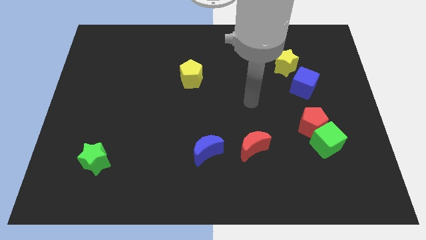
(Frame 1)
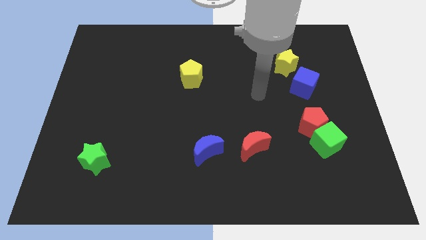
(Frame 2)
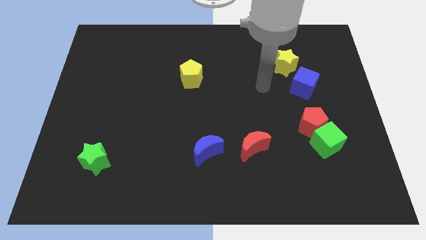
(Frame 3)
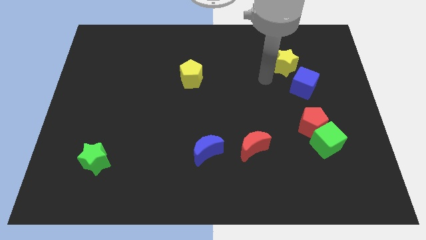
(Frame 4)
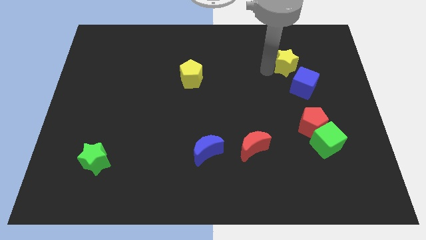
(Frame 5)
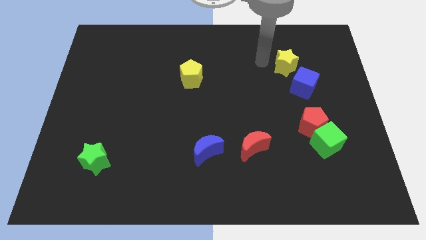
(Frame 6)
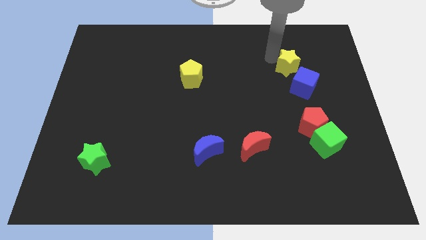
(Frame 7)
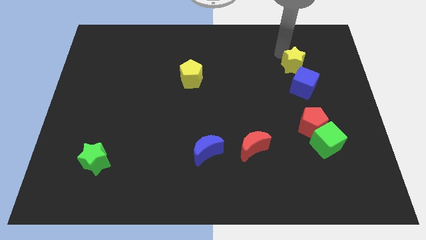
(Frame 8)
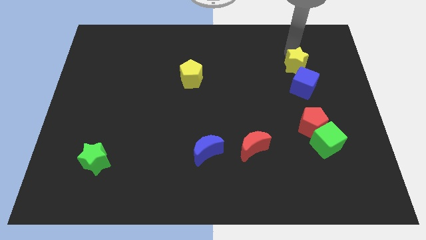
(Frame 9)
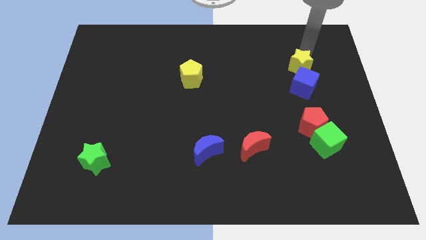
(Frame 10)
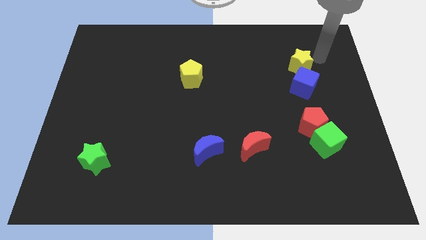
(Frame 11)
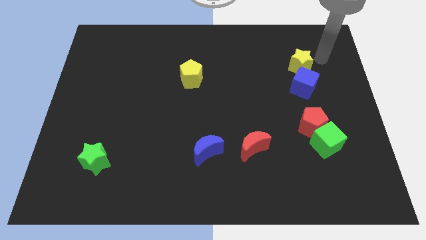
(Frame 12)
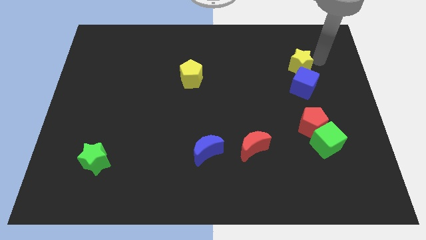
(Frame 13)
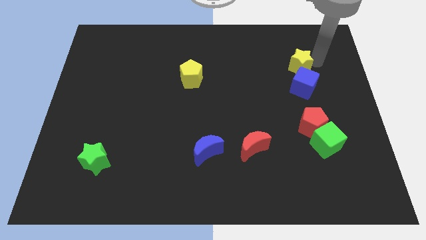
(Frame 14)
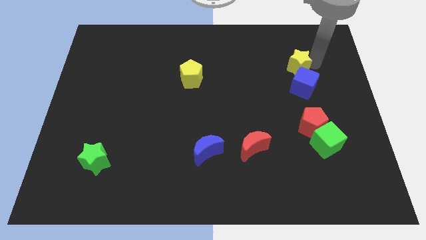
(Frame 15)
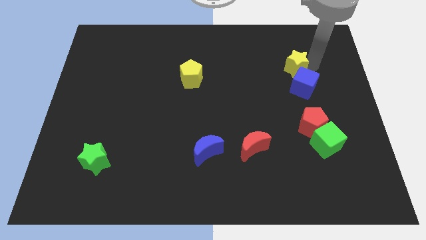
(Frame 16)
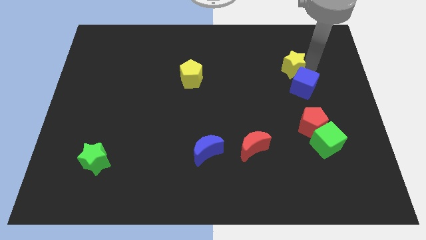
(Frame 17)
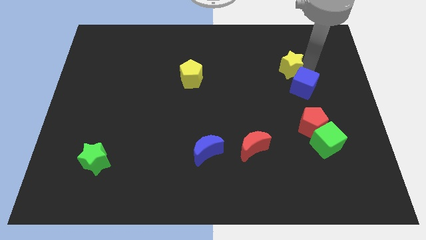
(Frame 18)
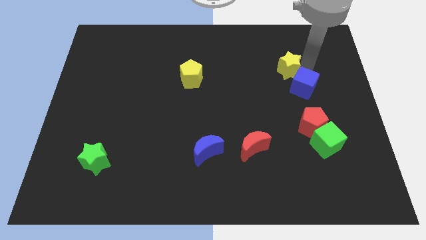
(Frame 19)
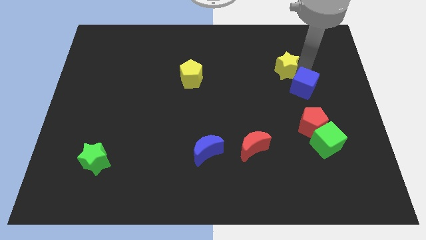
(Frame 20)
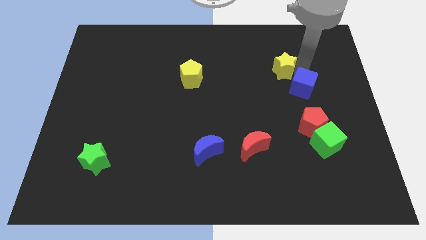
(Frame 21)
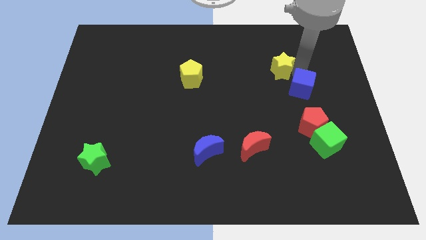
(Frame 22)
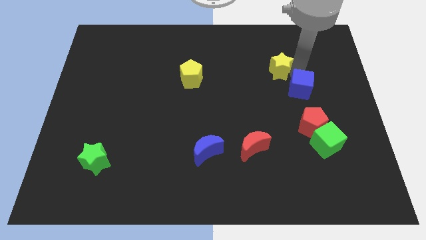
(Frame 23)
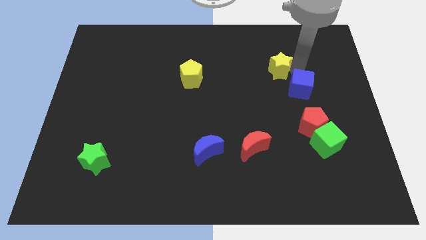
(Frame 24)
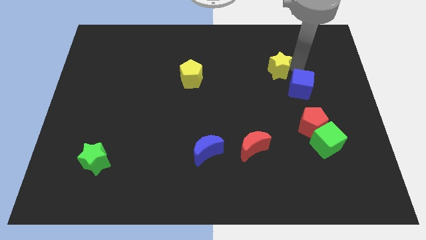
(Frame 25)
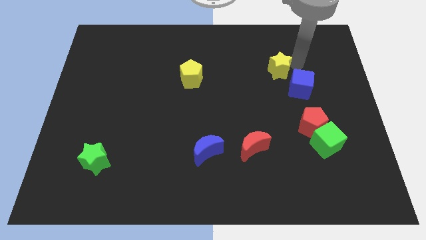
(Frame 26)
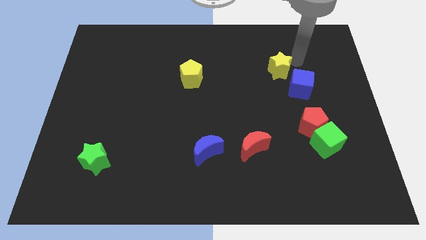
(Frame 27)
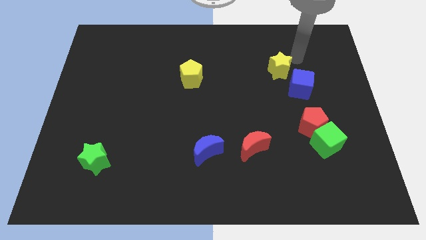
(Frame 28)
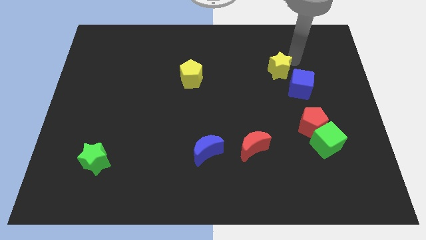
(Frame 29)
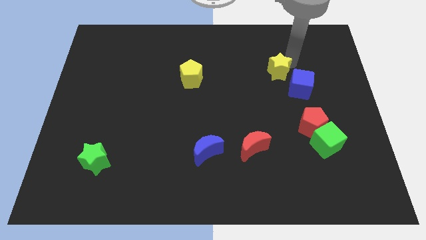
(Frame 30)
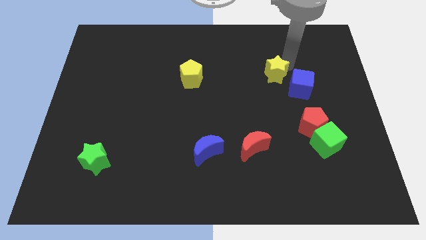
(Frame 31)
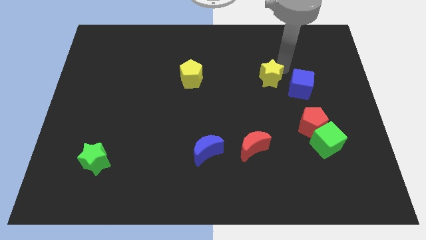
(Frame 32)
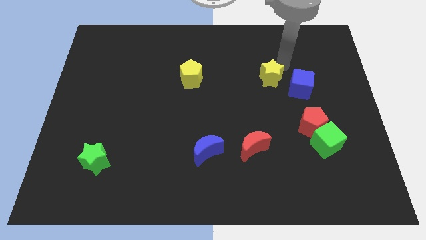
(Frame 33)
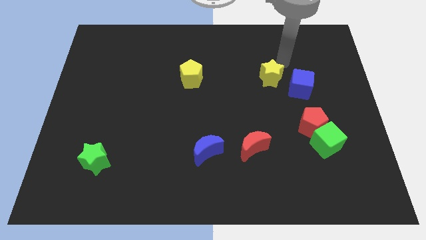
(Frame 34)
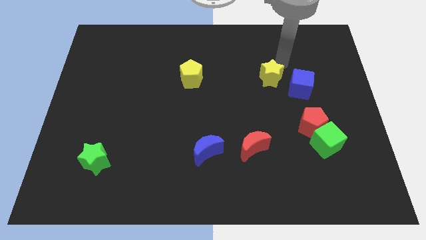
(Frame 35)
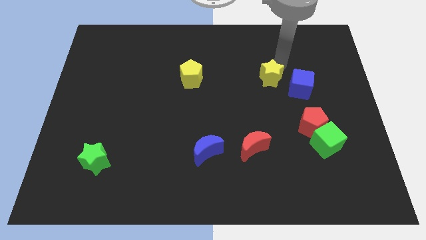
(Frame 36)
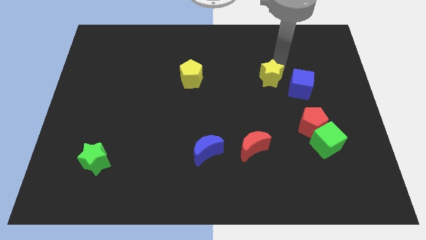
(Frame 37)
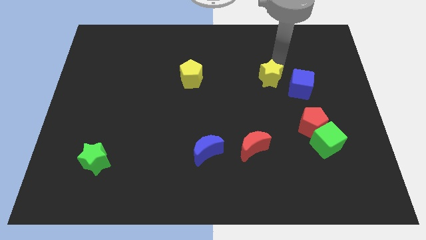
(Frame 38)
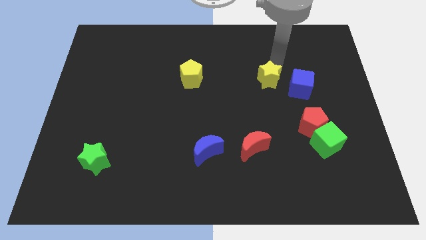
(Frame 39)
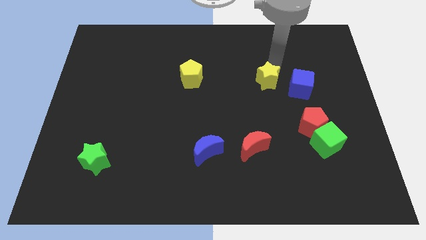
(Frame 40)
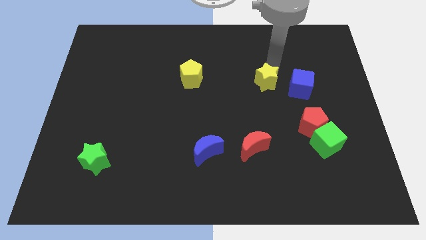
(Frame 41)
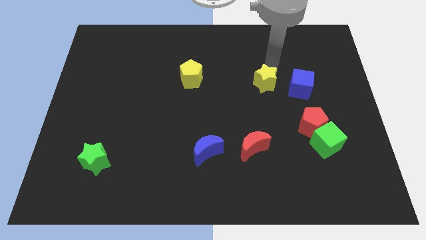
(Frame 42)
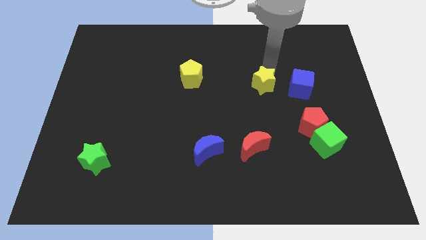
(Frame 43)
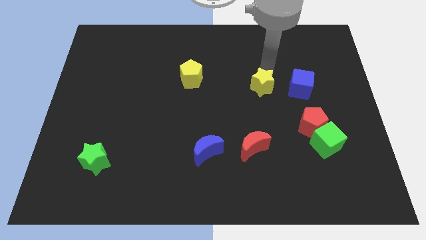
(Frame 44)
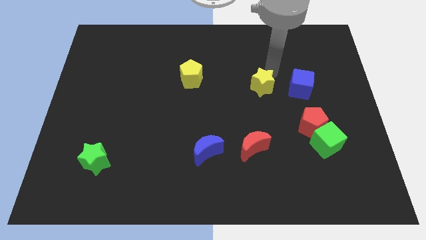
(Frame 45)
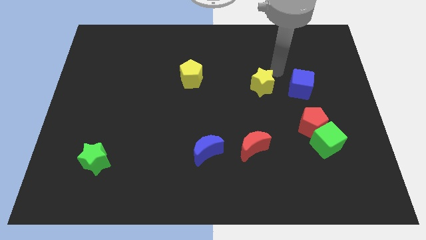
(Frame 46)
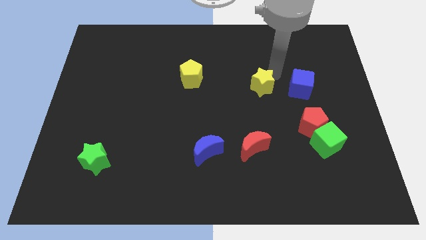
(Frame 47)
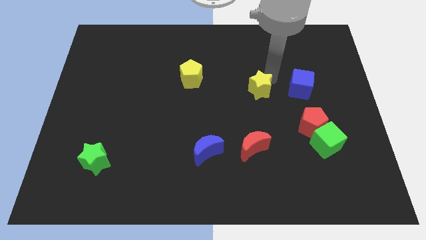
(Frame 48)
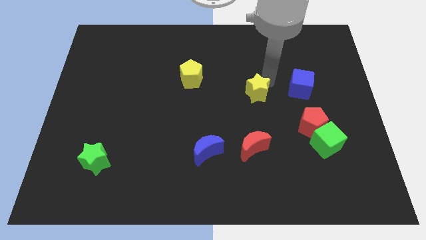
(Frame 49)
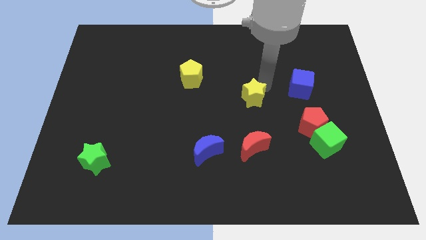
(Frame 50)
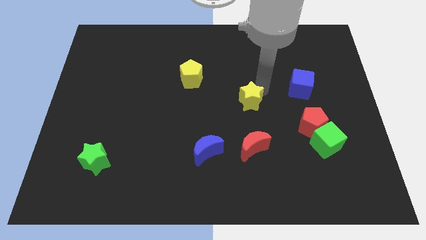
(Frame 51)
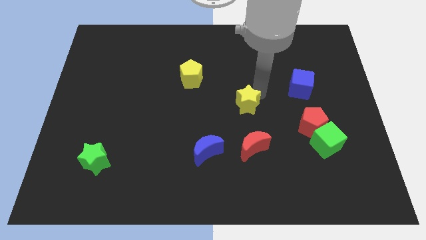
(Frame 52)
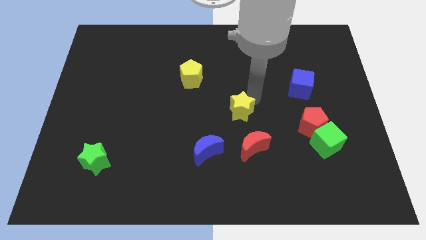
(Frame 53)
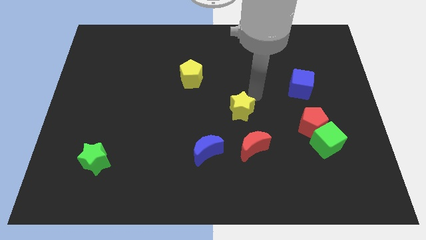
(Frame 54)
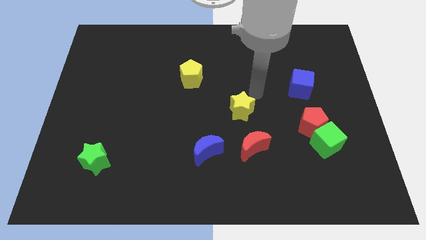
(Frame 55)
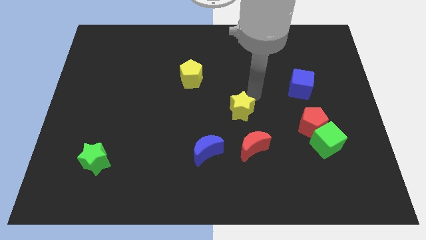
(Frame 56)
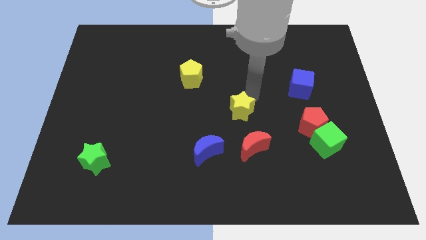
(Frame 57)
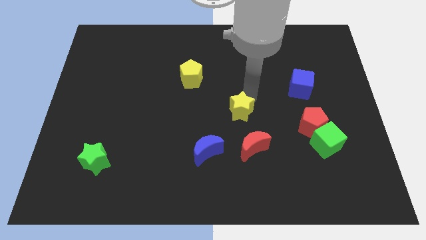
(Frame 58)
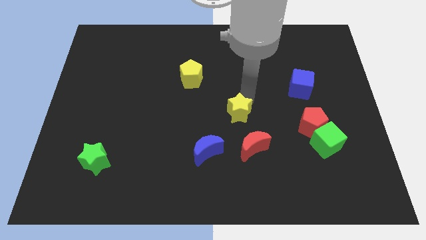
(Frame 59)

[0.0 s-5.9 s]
put the yellow star to the top left side of the red moon

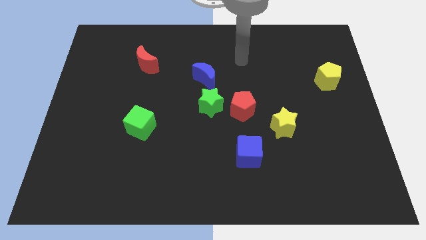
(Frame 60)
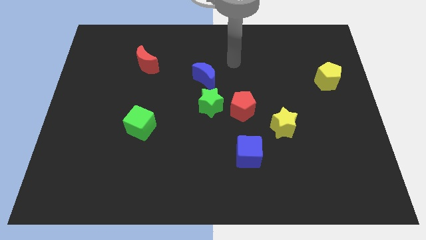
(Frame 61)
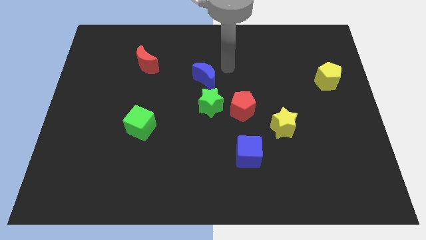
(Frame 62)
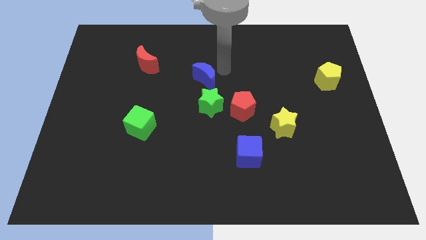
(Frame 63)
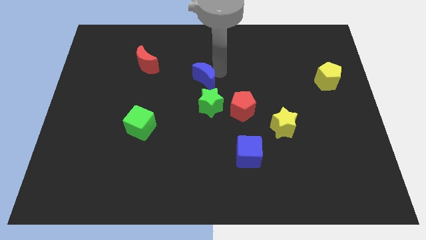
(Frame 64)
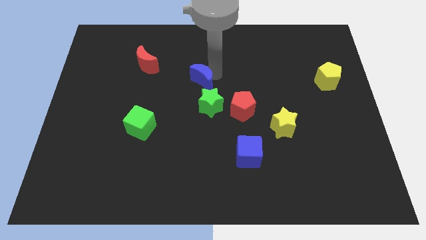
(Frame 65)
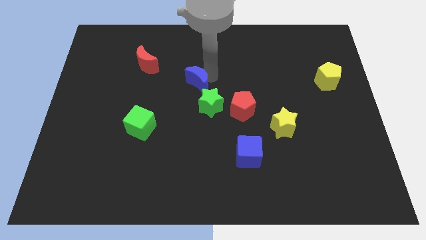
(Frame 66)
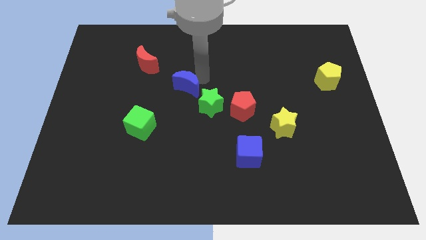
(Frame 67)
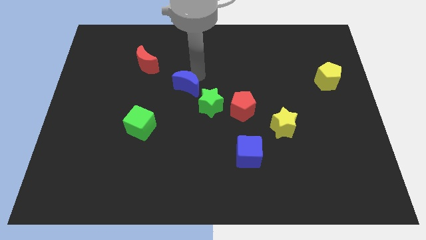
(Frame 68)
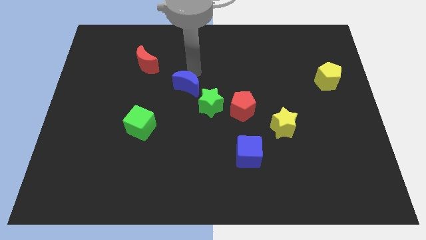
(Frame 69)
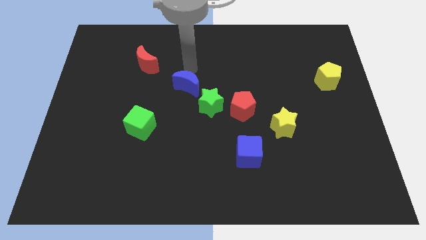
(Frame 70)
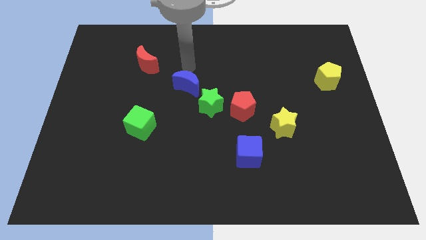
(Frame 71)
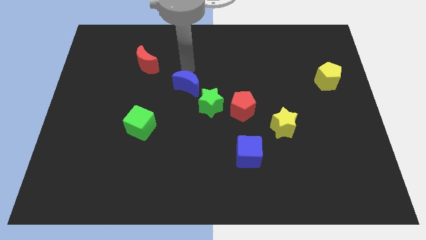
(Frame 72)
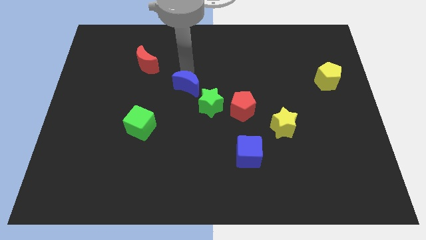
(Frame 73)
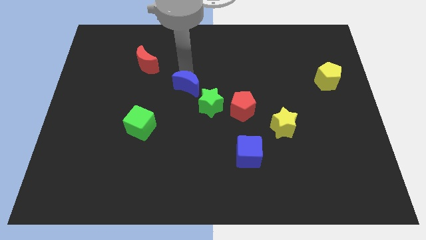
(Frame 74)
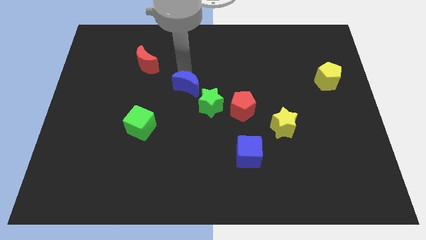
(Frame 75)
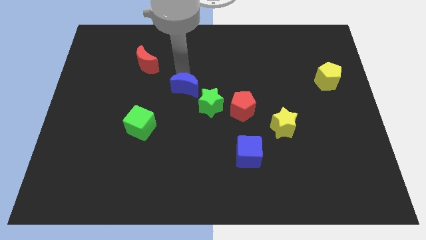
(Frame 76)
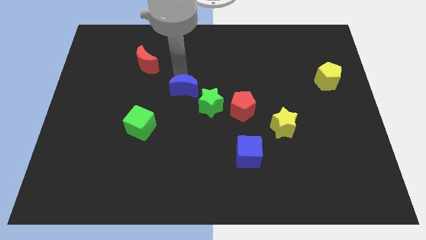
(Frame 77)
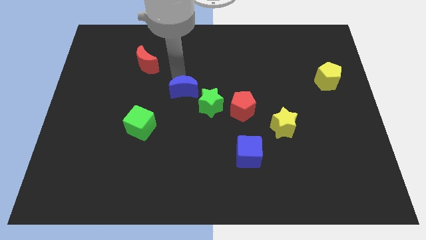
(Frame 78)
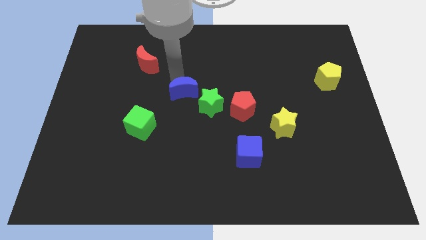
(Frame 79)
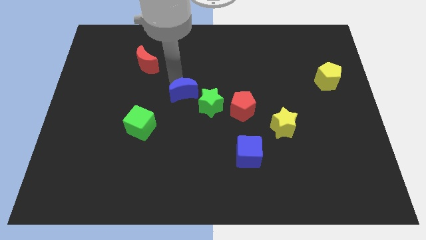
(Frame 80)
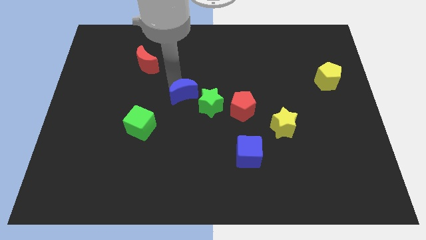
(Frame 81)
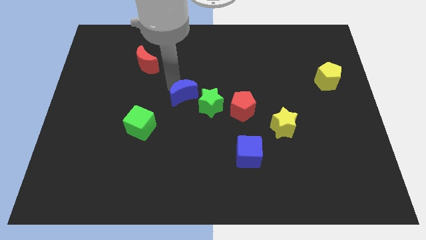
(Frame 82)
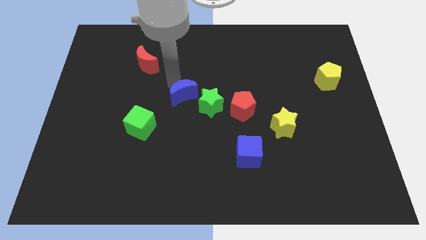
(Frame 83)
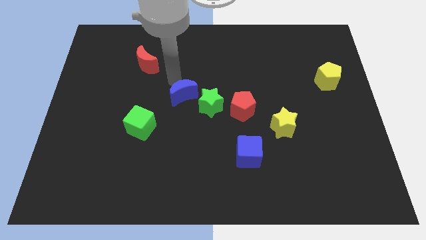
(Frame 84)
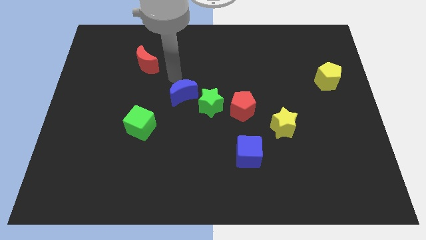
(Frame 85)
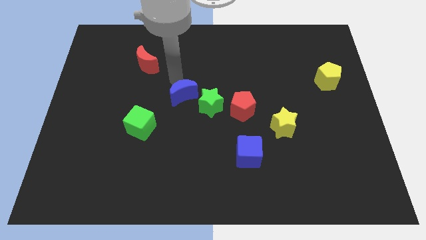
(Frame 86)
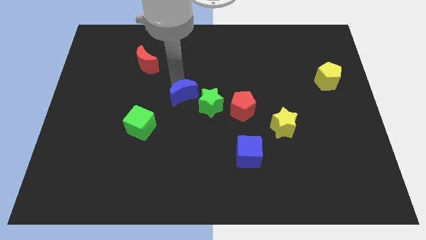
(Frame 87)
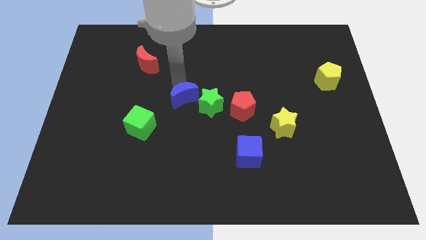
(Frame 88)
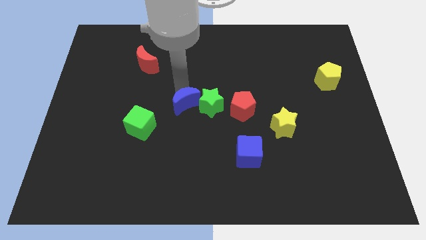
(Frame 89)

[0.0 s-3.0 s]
slide the blue moon diagonally down and to the left of the green star

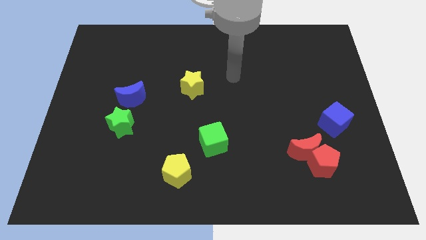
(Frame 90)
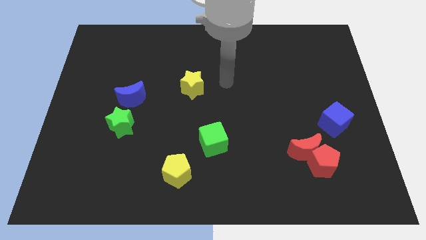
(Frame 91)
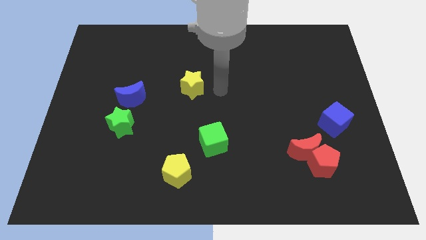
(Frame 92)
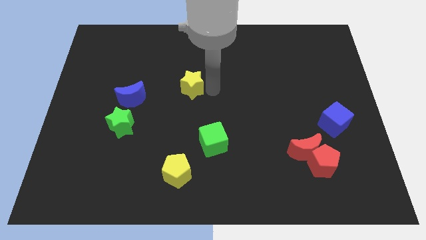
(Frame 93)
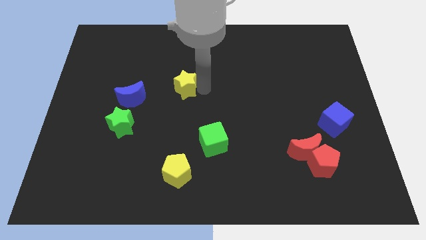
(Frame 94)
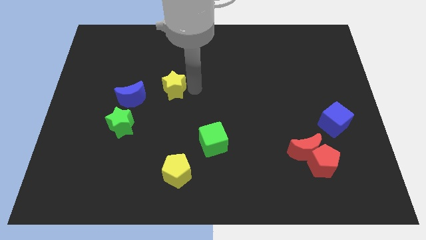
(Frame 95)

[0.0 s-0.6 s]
move the yellow star diagonally up and to the right of the blue moon
